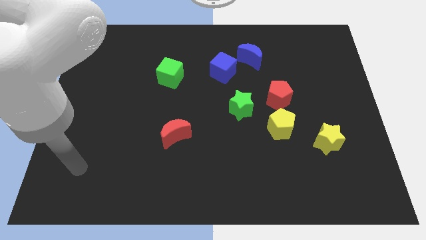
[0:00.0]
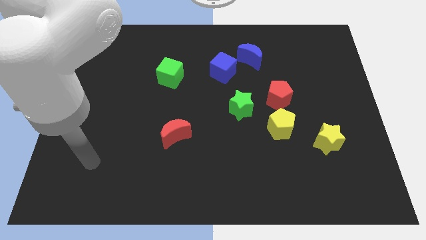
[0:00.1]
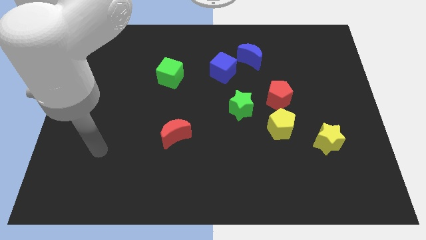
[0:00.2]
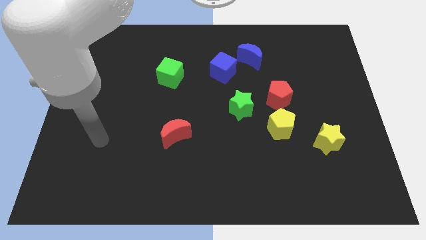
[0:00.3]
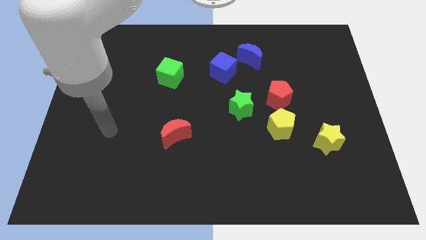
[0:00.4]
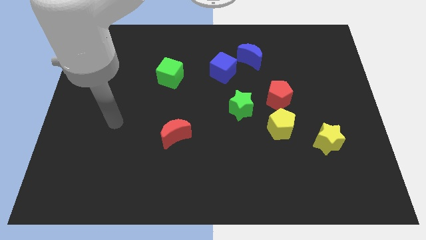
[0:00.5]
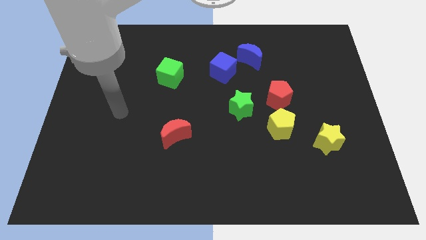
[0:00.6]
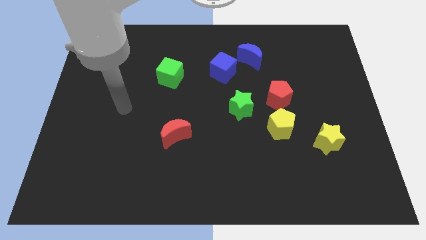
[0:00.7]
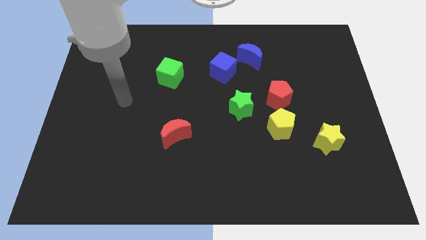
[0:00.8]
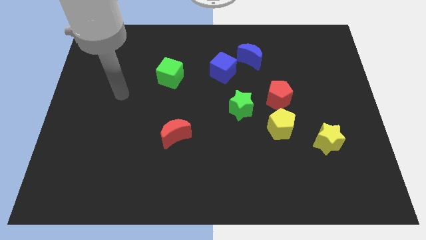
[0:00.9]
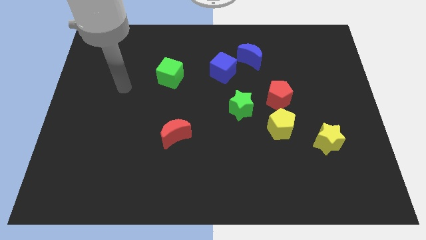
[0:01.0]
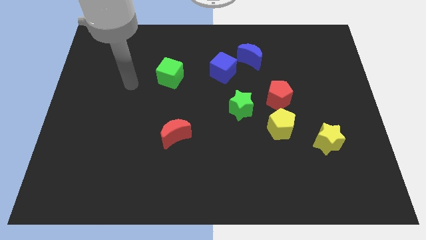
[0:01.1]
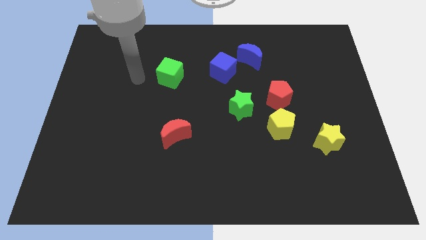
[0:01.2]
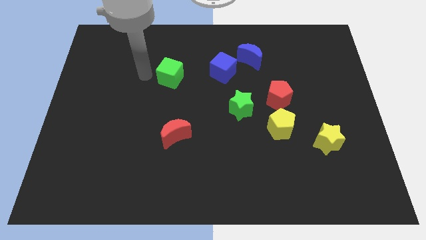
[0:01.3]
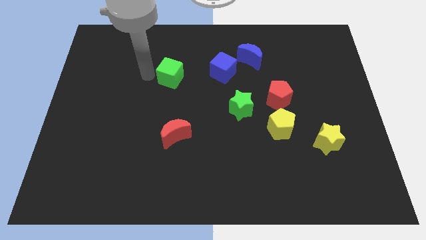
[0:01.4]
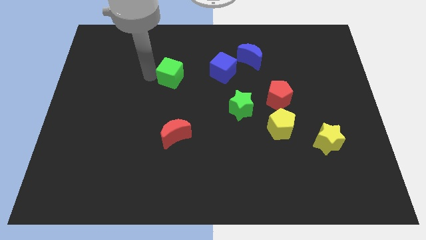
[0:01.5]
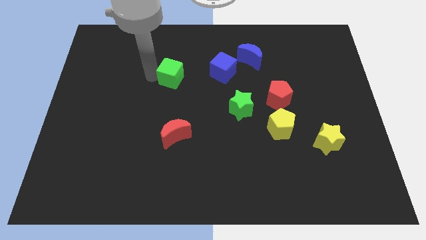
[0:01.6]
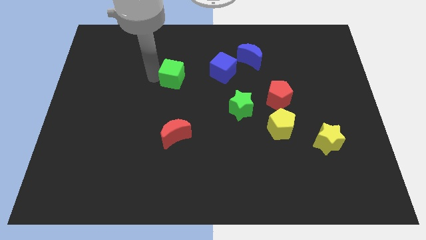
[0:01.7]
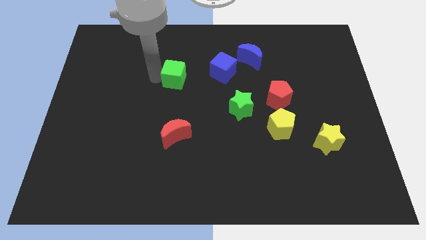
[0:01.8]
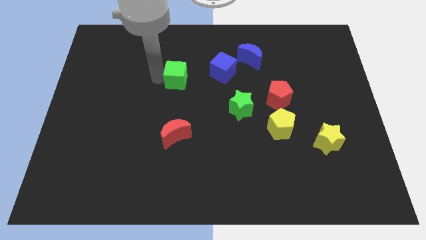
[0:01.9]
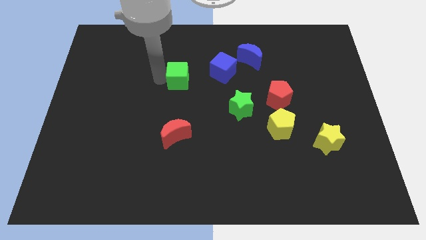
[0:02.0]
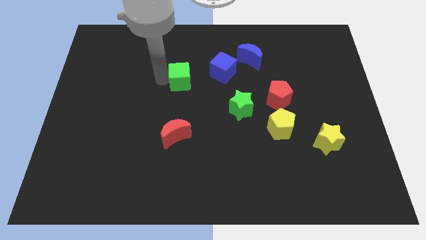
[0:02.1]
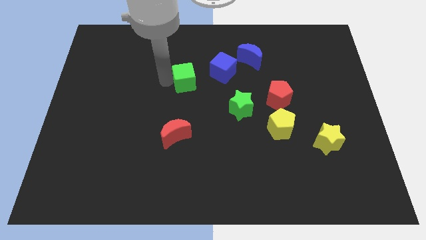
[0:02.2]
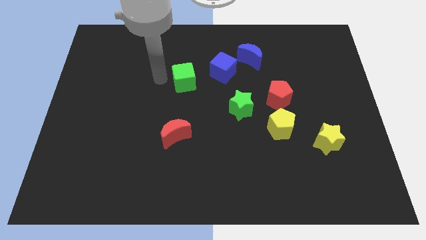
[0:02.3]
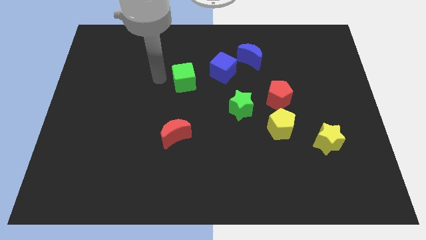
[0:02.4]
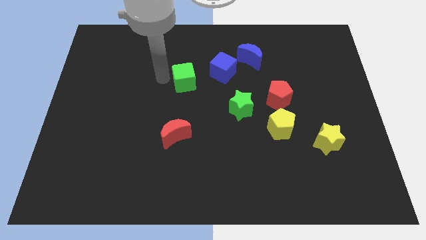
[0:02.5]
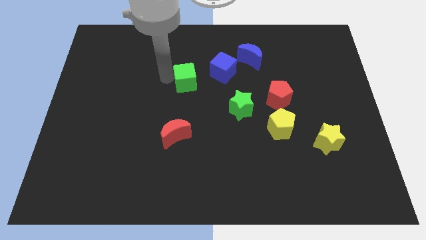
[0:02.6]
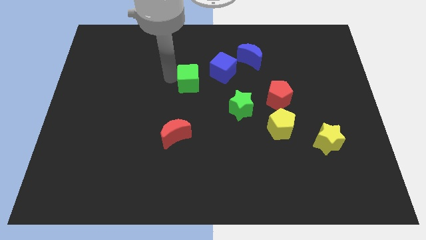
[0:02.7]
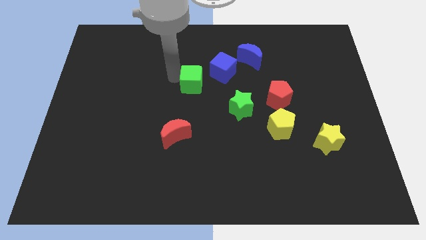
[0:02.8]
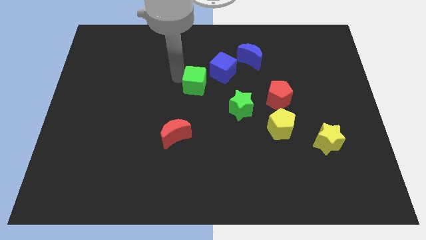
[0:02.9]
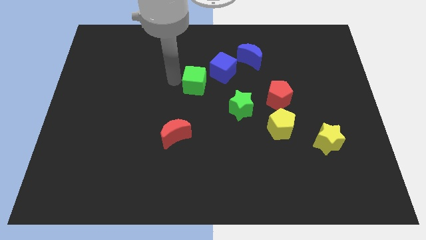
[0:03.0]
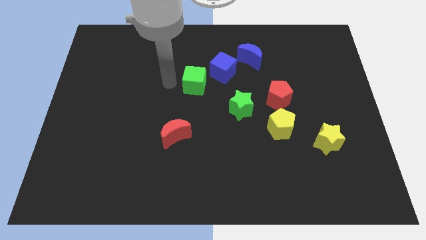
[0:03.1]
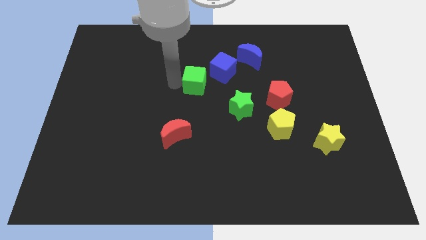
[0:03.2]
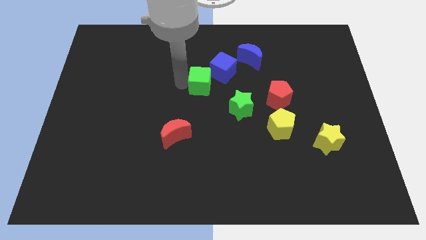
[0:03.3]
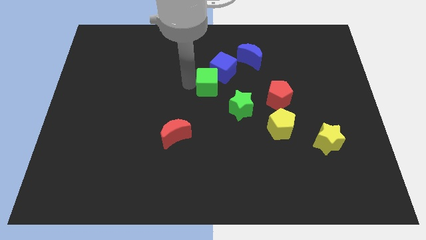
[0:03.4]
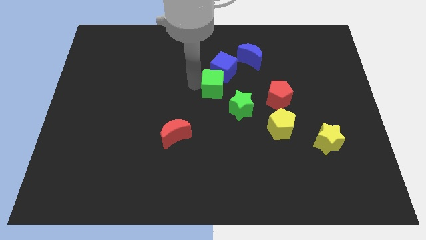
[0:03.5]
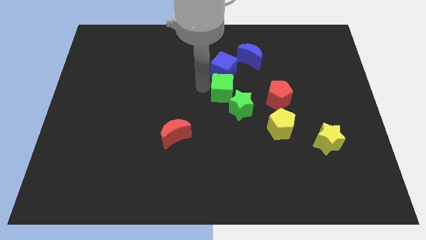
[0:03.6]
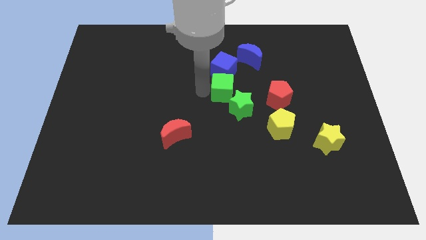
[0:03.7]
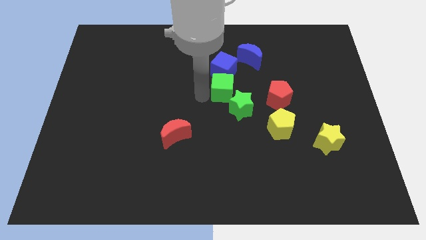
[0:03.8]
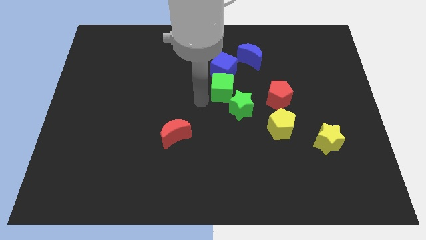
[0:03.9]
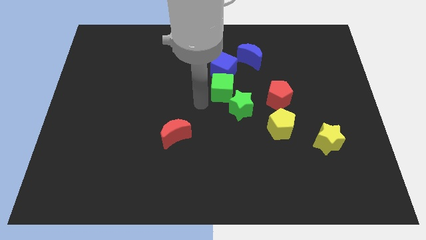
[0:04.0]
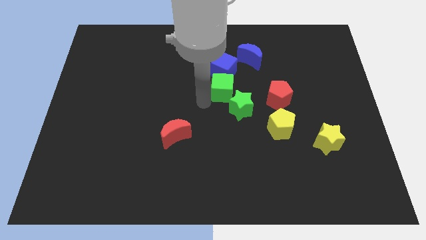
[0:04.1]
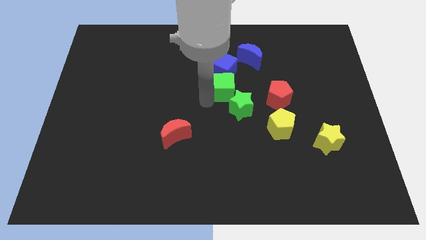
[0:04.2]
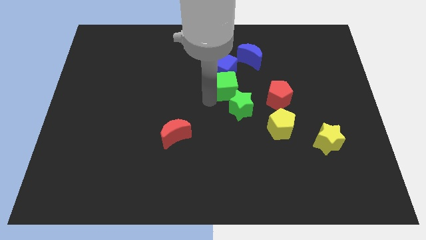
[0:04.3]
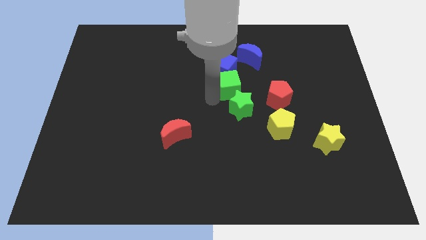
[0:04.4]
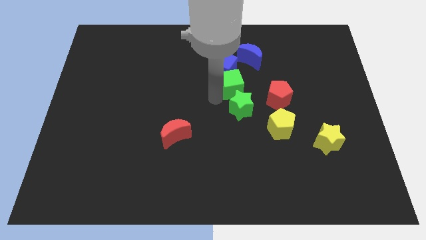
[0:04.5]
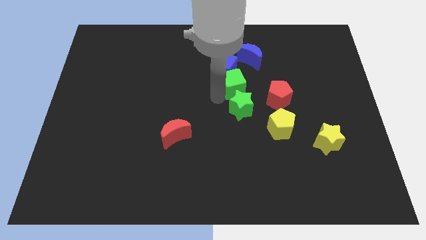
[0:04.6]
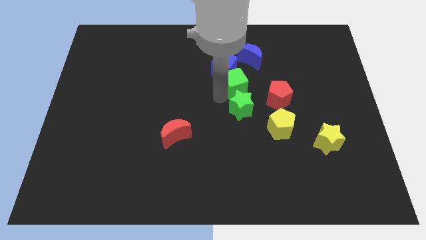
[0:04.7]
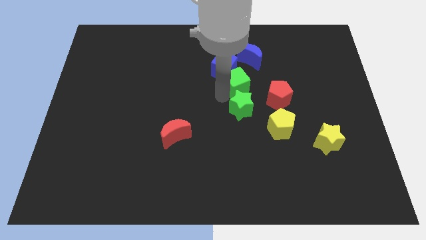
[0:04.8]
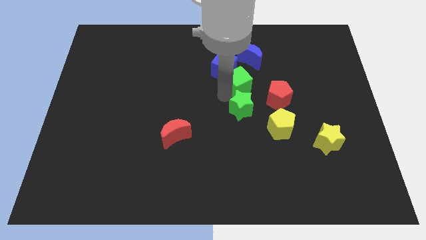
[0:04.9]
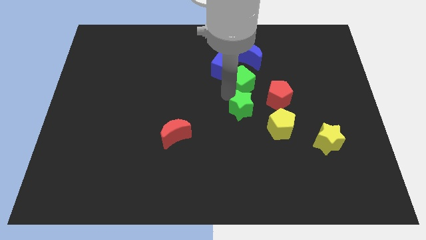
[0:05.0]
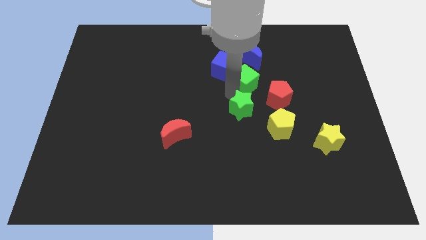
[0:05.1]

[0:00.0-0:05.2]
move the green cube just right of the blue cube

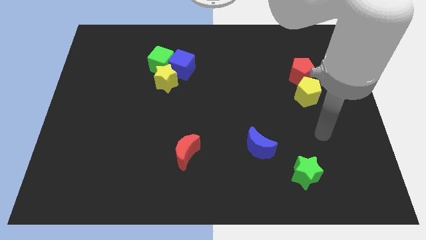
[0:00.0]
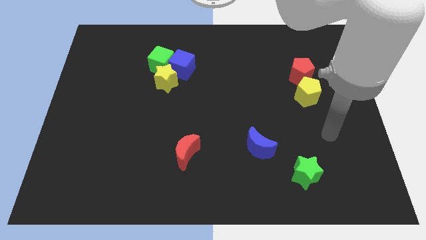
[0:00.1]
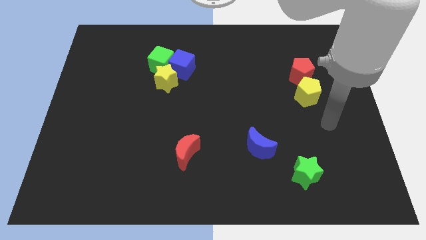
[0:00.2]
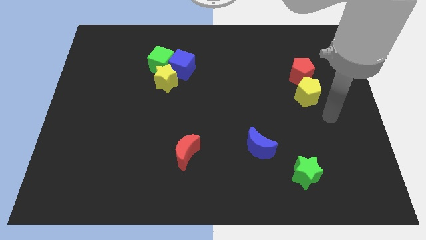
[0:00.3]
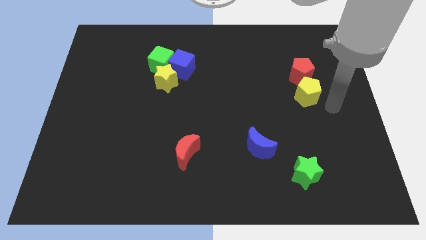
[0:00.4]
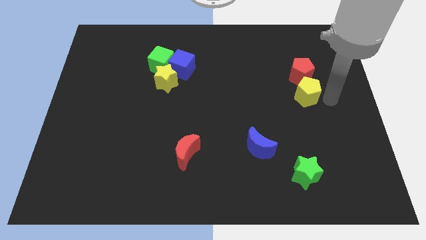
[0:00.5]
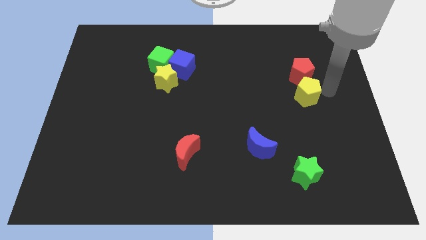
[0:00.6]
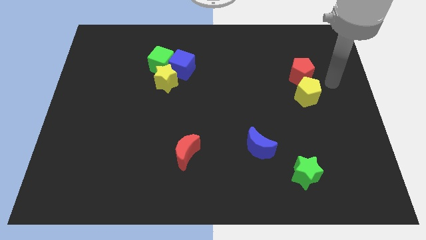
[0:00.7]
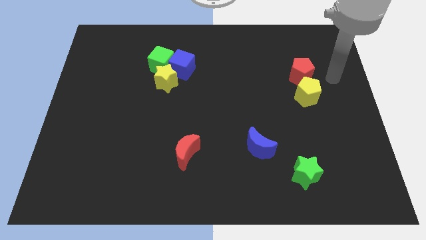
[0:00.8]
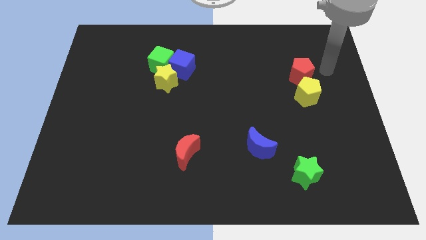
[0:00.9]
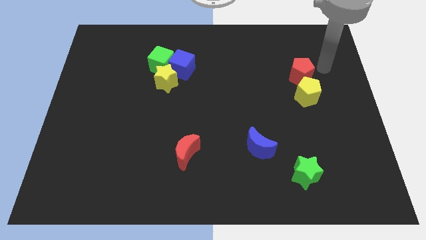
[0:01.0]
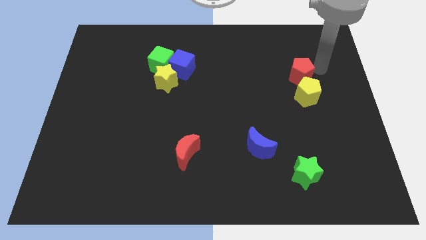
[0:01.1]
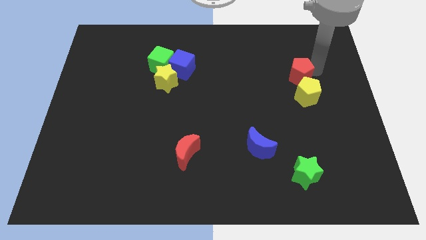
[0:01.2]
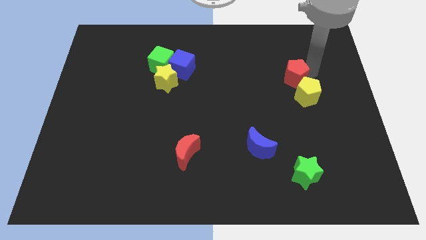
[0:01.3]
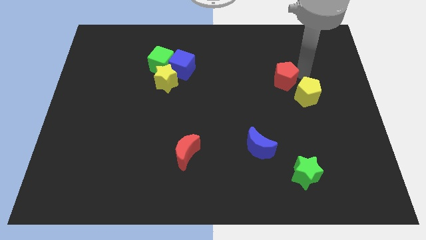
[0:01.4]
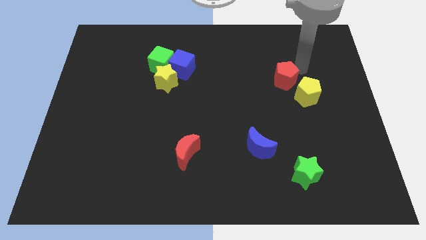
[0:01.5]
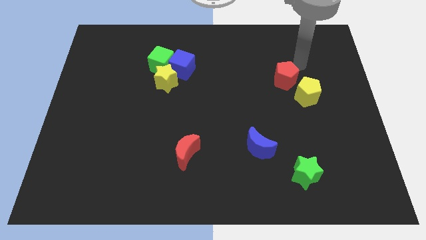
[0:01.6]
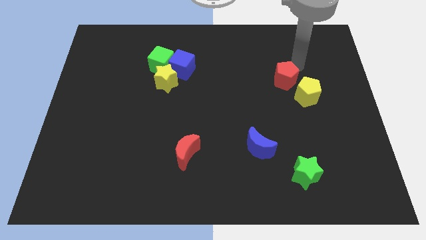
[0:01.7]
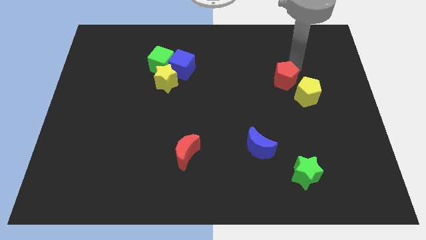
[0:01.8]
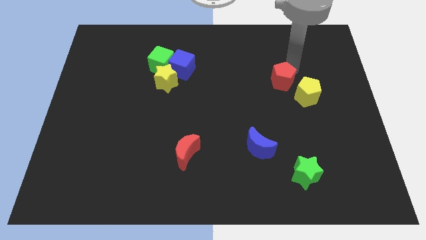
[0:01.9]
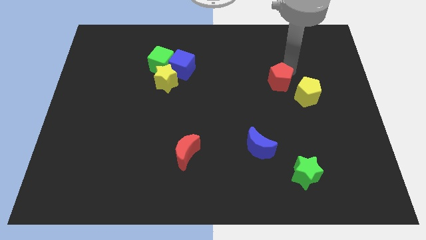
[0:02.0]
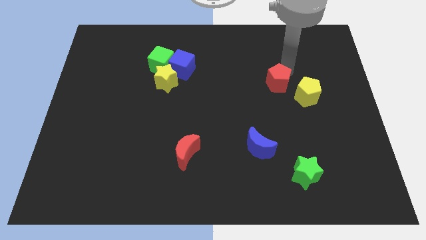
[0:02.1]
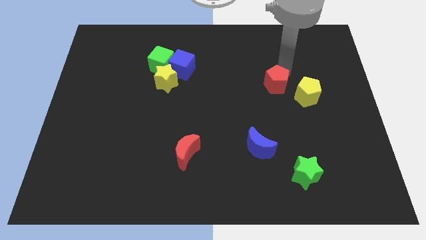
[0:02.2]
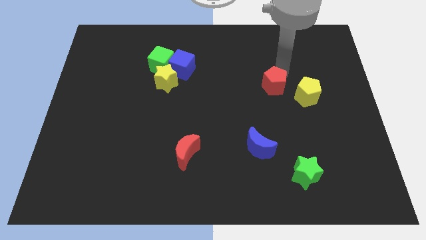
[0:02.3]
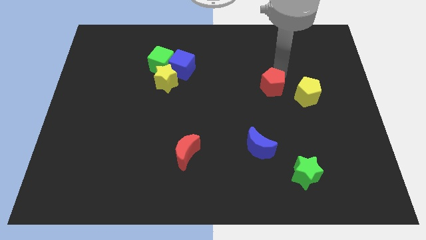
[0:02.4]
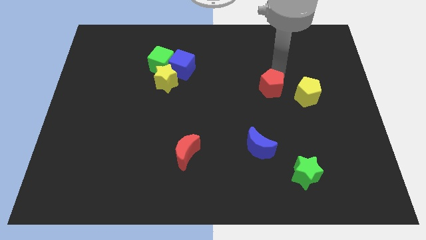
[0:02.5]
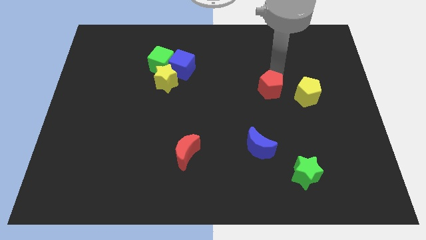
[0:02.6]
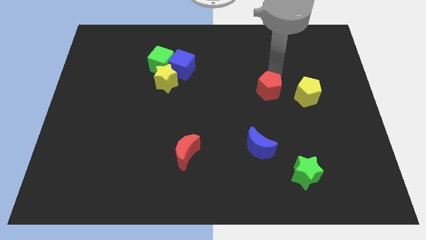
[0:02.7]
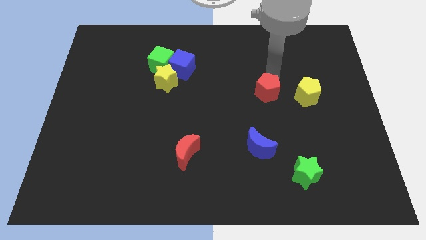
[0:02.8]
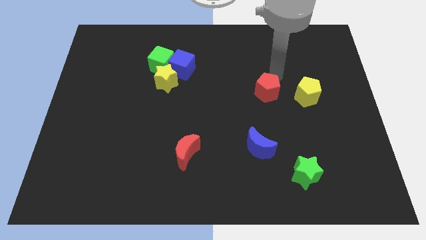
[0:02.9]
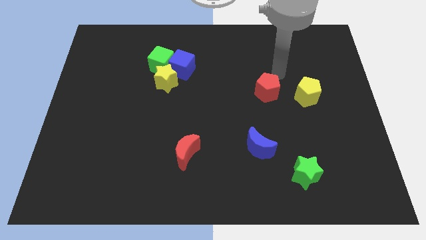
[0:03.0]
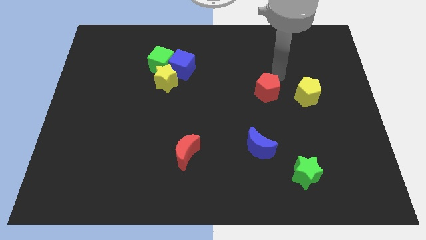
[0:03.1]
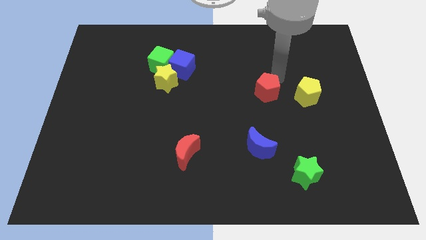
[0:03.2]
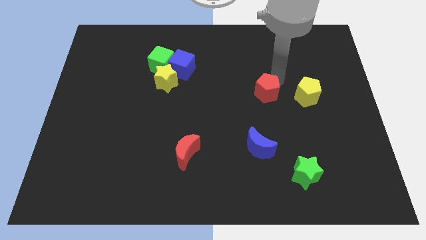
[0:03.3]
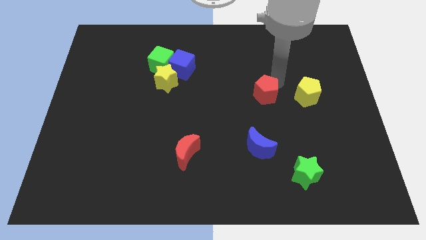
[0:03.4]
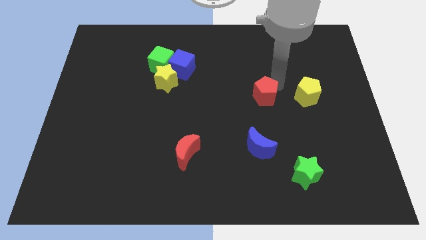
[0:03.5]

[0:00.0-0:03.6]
move the red pentagon above the blue moon
